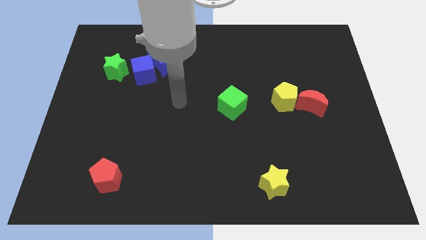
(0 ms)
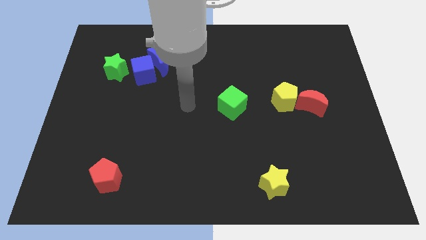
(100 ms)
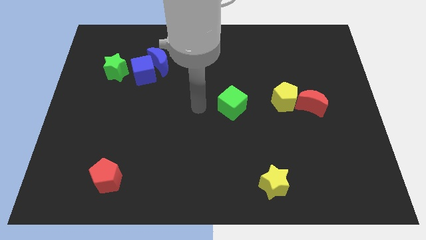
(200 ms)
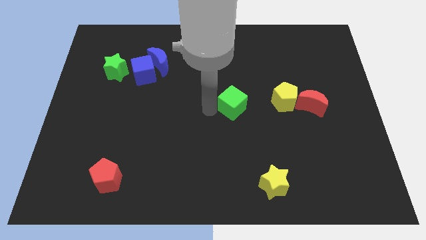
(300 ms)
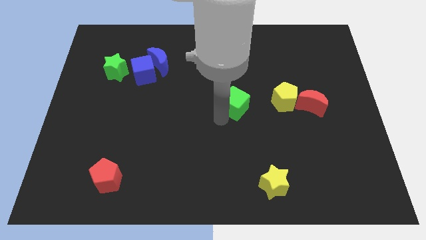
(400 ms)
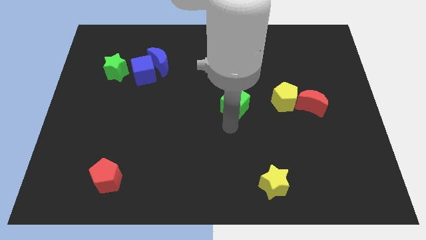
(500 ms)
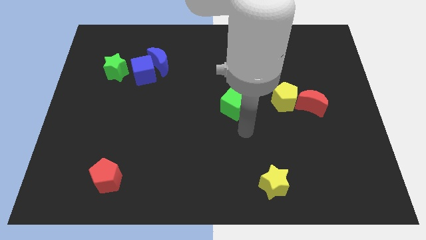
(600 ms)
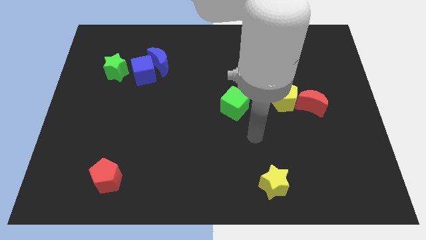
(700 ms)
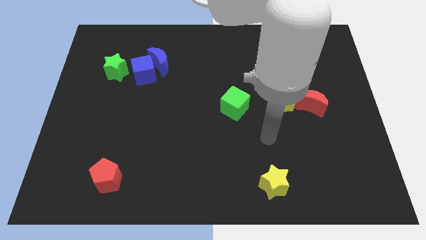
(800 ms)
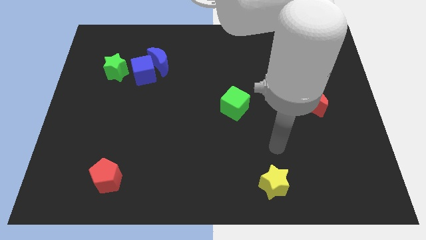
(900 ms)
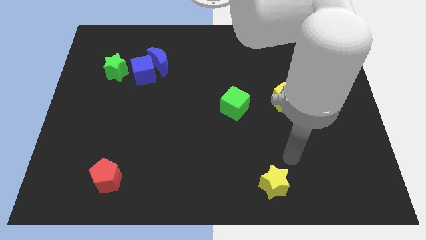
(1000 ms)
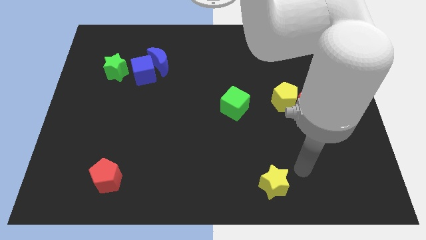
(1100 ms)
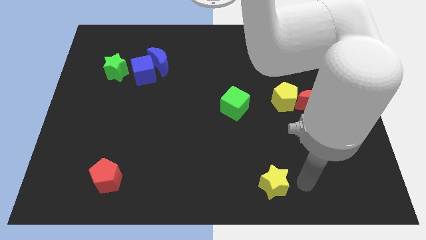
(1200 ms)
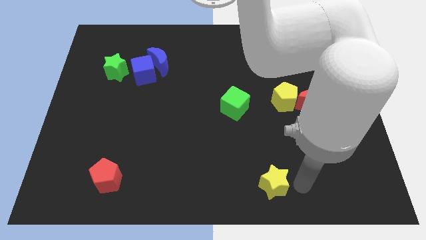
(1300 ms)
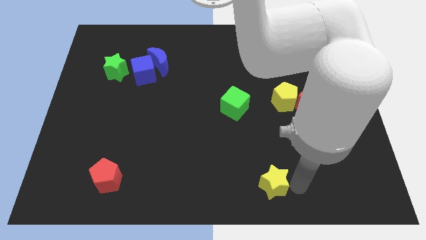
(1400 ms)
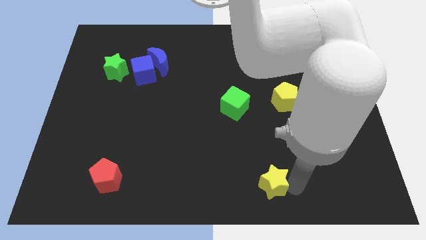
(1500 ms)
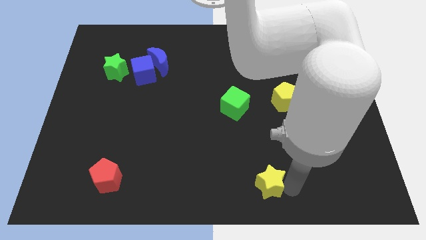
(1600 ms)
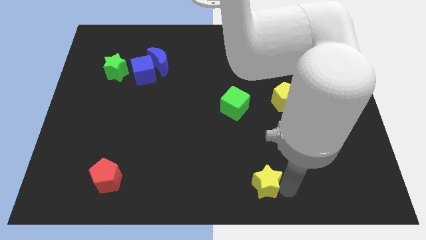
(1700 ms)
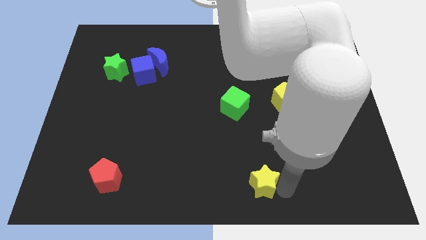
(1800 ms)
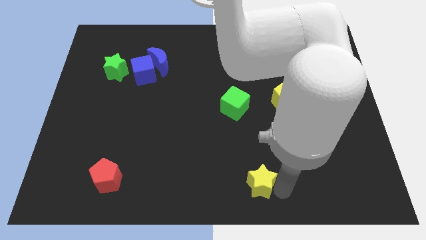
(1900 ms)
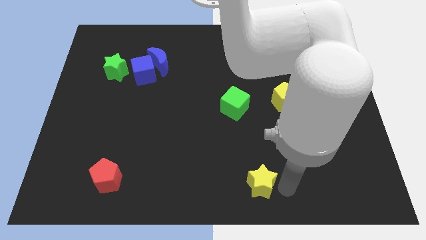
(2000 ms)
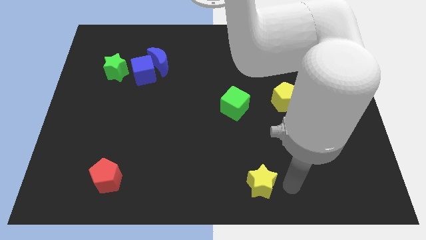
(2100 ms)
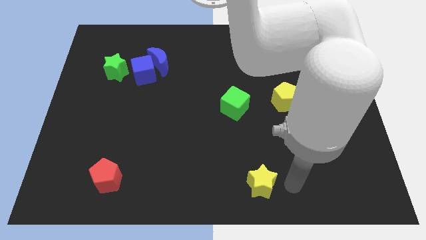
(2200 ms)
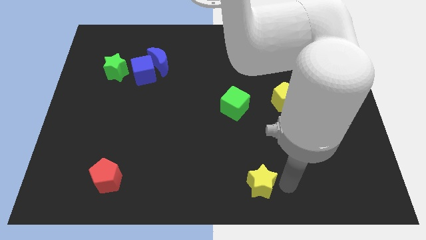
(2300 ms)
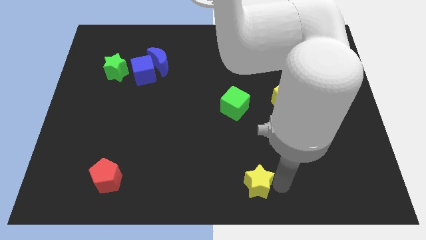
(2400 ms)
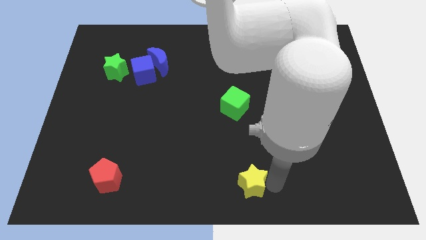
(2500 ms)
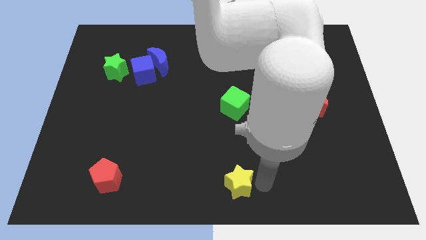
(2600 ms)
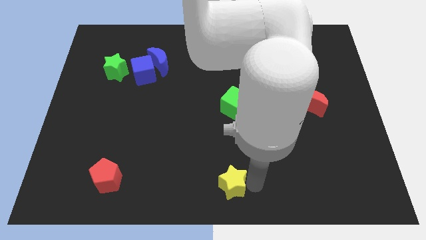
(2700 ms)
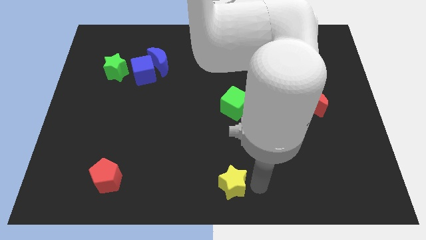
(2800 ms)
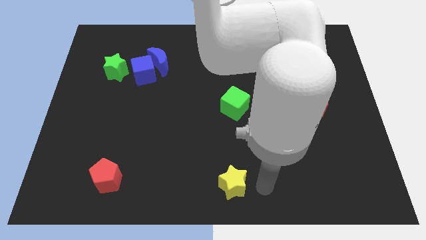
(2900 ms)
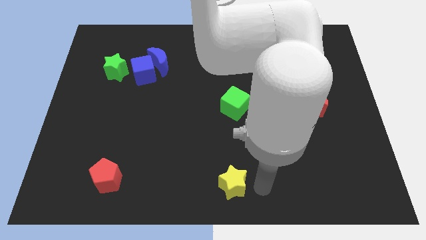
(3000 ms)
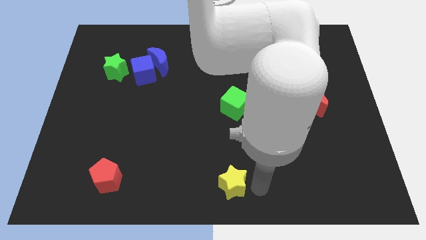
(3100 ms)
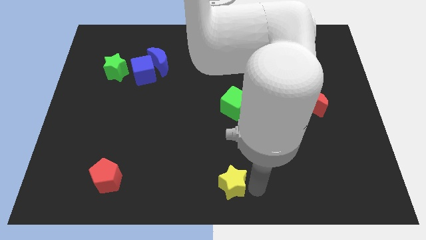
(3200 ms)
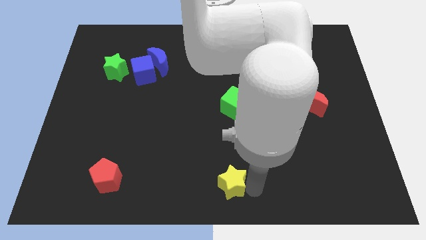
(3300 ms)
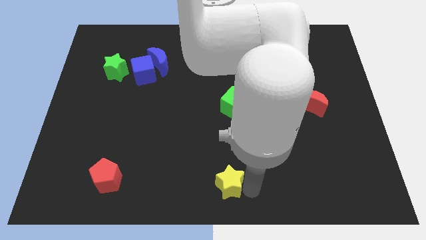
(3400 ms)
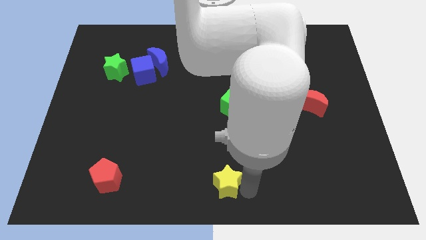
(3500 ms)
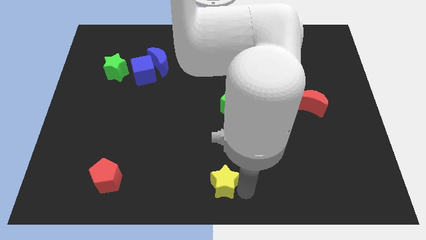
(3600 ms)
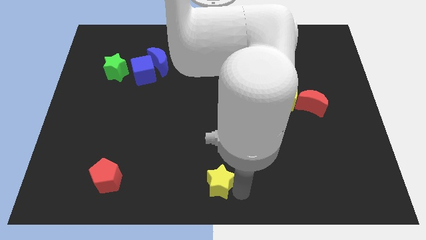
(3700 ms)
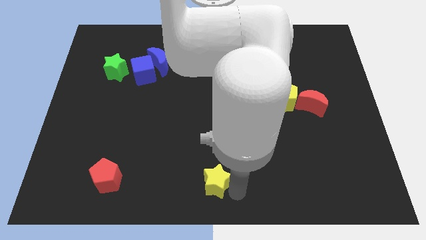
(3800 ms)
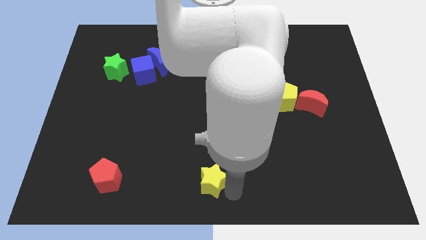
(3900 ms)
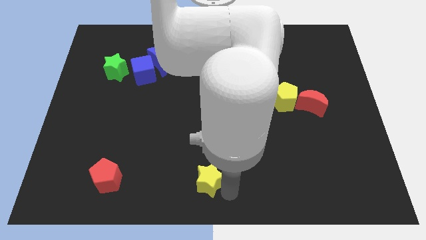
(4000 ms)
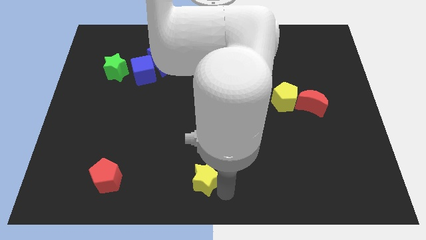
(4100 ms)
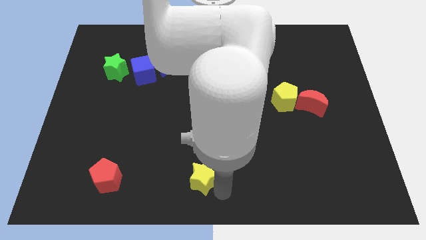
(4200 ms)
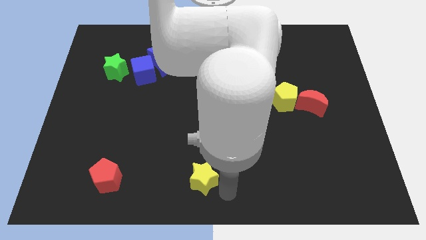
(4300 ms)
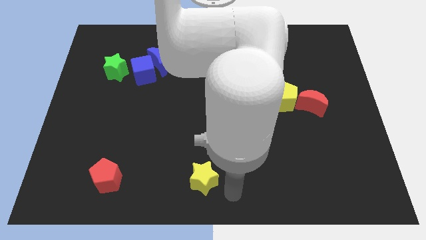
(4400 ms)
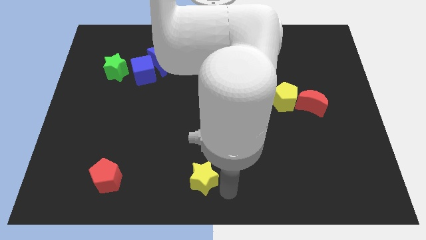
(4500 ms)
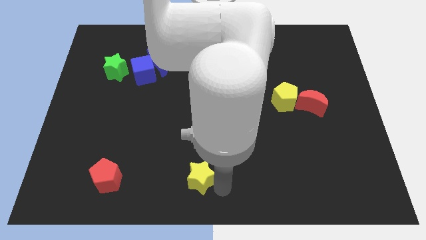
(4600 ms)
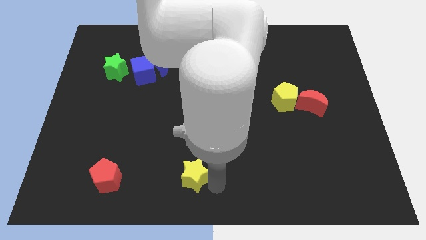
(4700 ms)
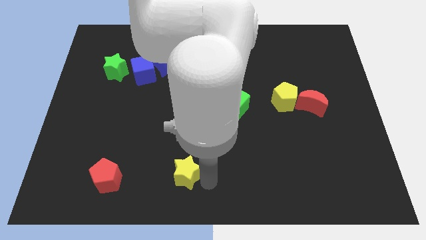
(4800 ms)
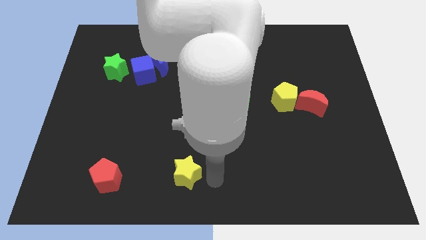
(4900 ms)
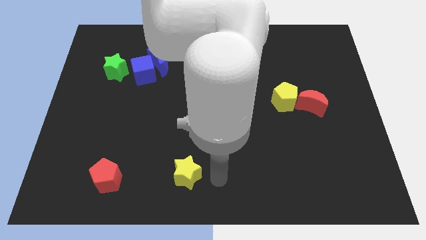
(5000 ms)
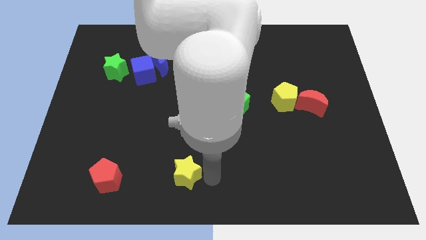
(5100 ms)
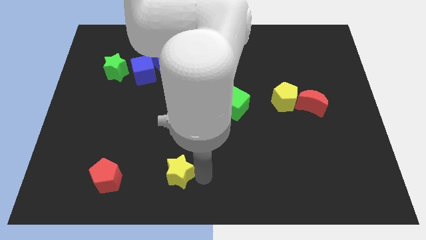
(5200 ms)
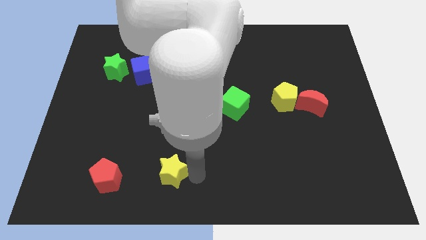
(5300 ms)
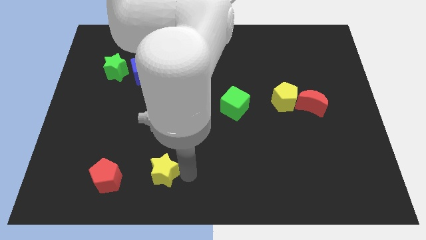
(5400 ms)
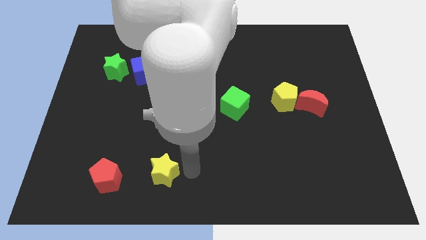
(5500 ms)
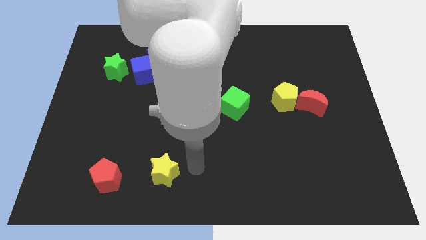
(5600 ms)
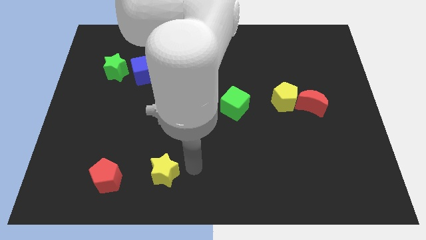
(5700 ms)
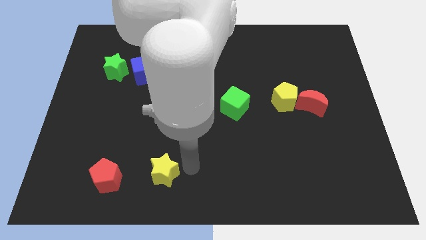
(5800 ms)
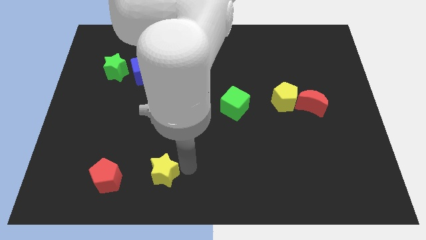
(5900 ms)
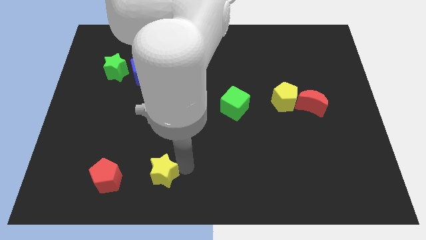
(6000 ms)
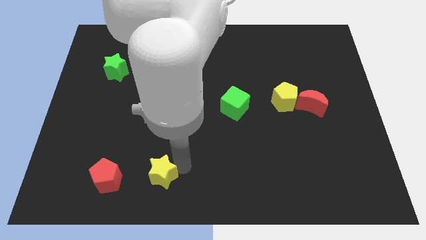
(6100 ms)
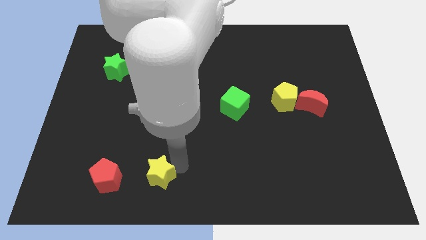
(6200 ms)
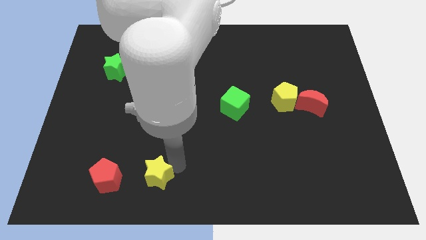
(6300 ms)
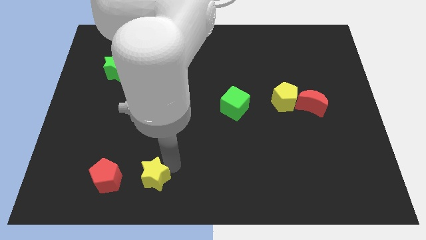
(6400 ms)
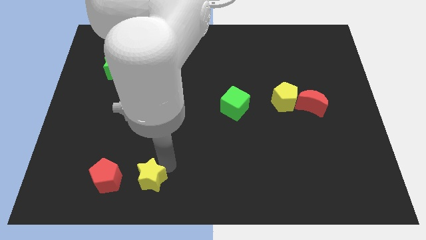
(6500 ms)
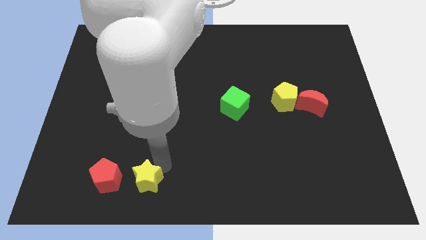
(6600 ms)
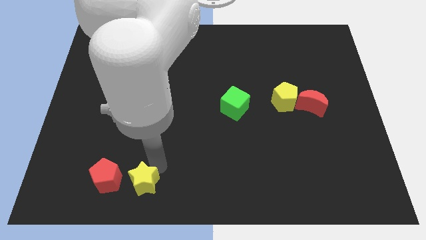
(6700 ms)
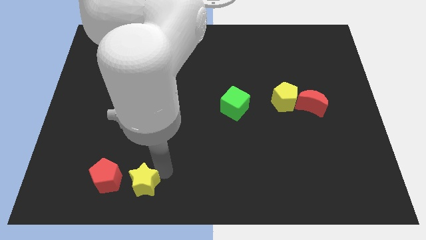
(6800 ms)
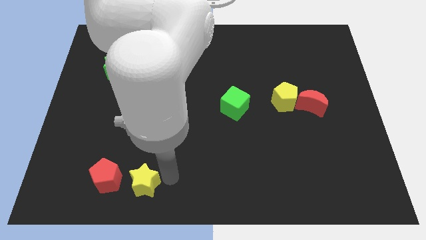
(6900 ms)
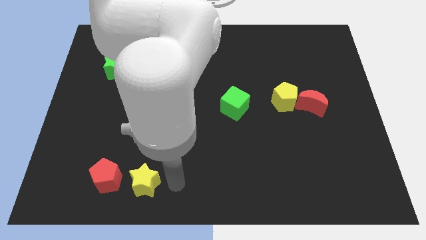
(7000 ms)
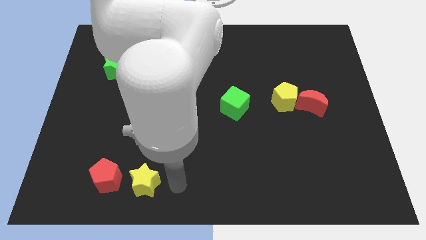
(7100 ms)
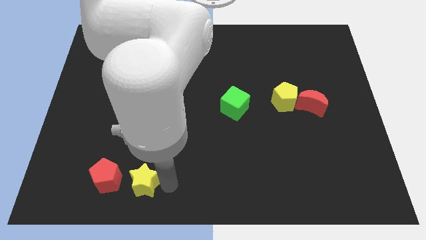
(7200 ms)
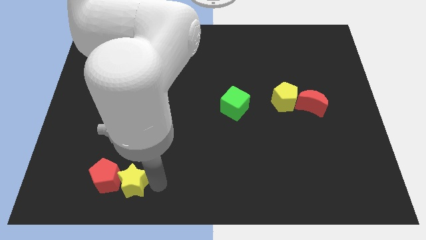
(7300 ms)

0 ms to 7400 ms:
push the yellow star close to the red pentagon
